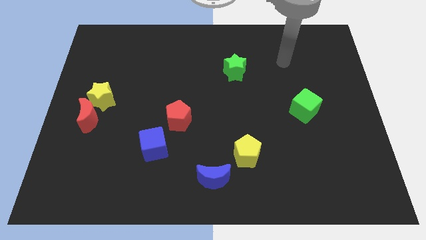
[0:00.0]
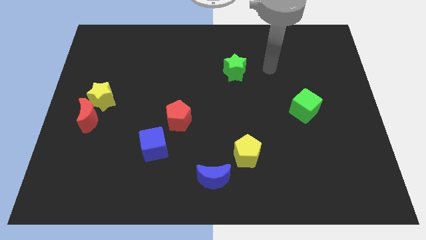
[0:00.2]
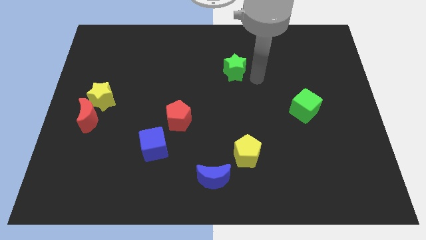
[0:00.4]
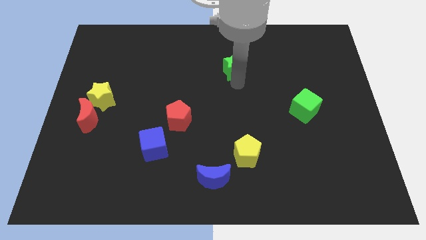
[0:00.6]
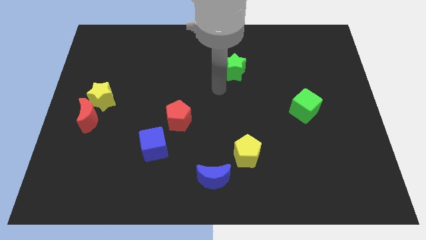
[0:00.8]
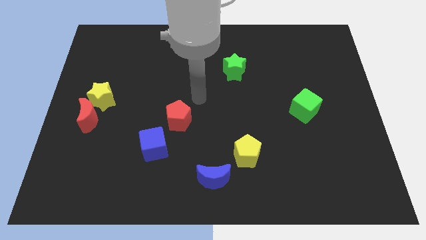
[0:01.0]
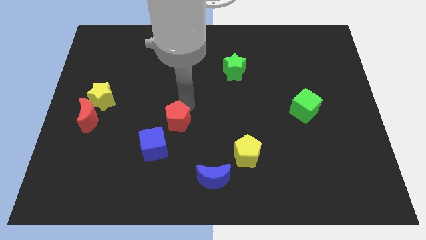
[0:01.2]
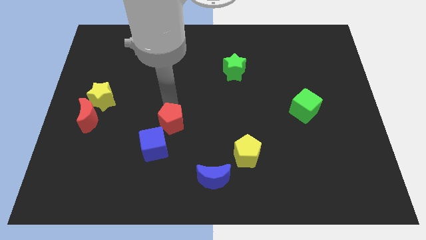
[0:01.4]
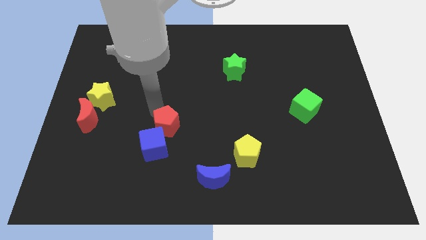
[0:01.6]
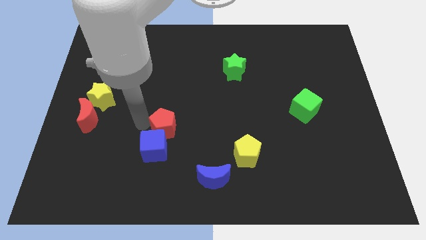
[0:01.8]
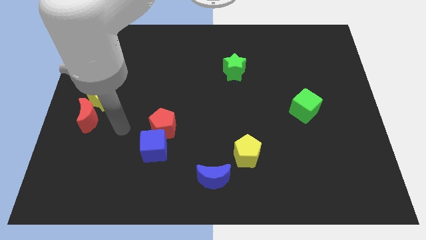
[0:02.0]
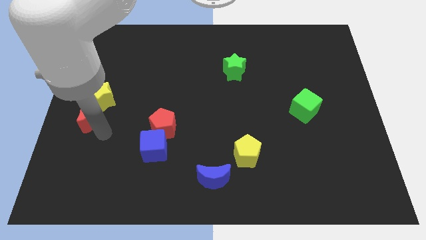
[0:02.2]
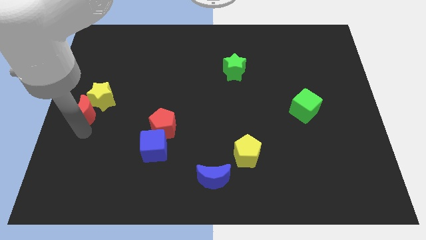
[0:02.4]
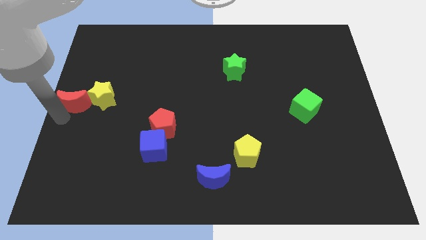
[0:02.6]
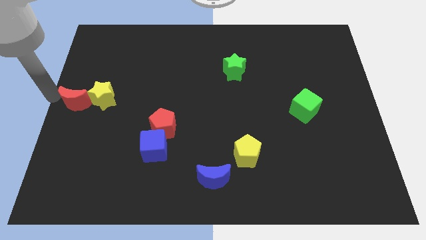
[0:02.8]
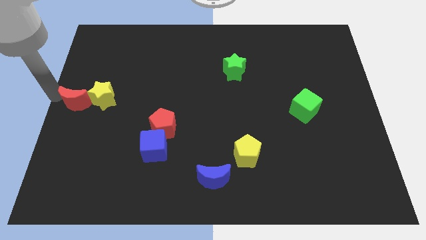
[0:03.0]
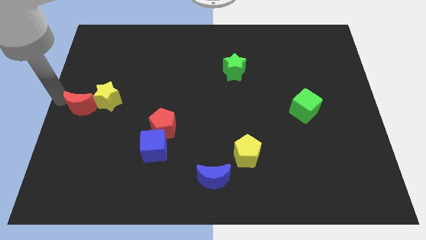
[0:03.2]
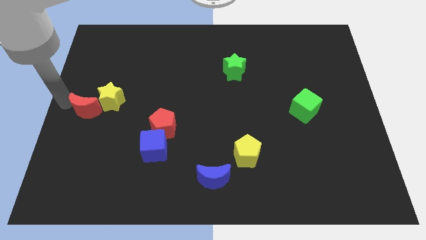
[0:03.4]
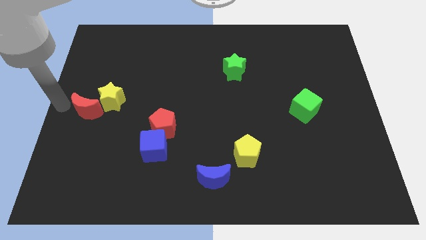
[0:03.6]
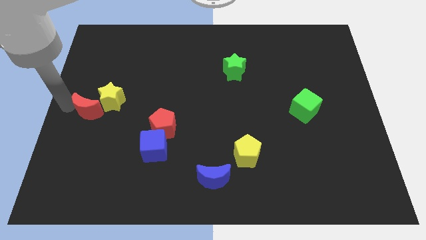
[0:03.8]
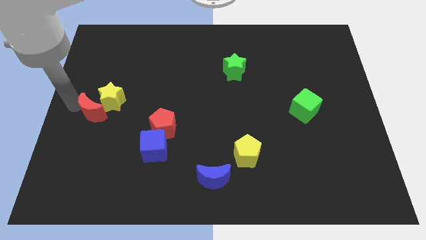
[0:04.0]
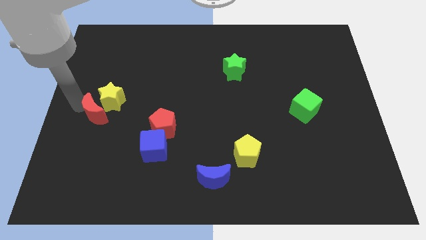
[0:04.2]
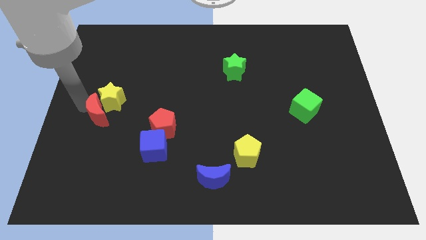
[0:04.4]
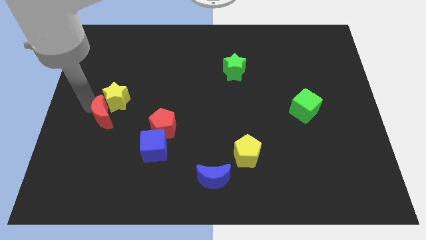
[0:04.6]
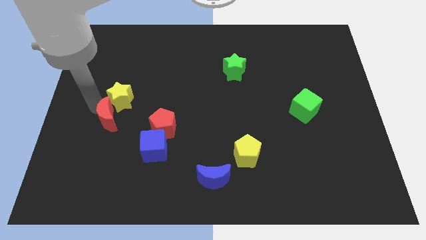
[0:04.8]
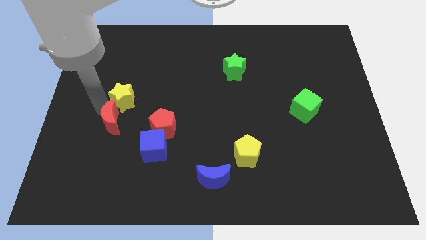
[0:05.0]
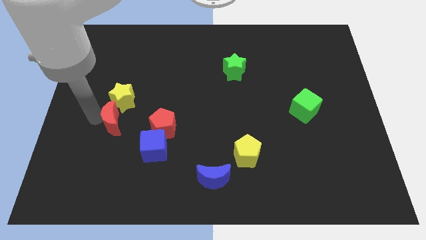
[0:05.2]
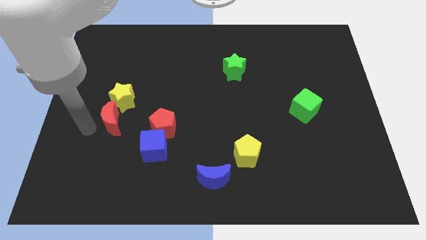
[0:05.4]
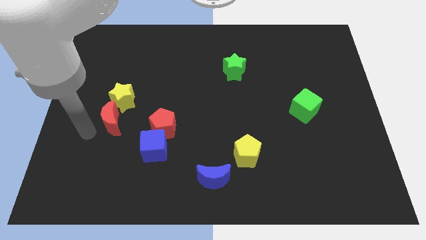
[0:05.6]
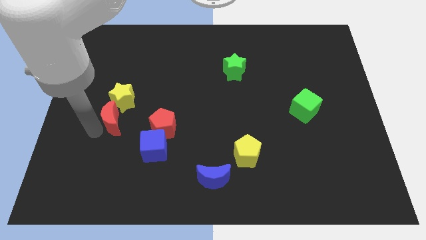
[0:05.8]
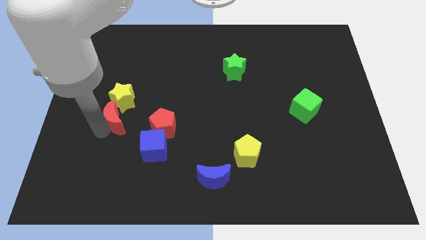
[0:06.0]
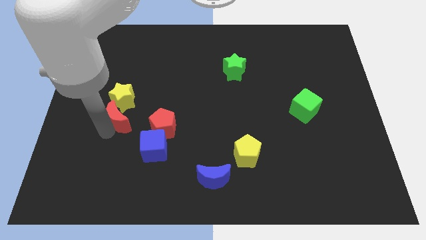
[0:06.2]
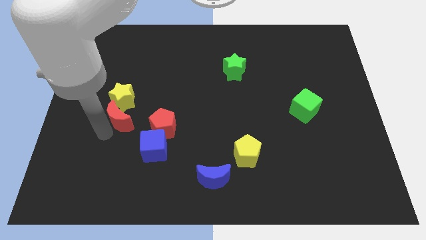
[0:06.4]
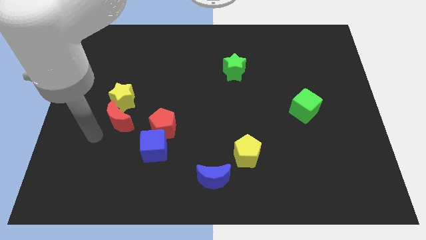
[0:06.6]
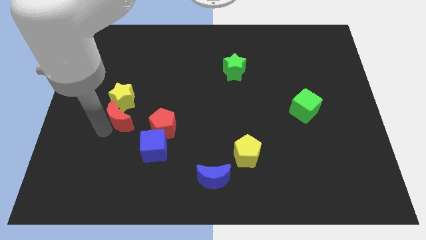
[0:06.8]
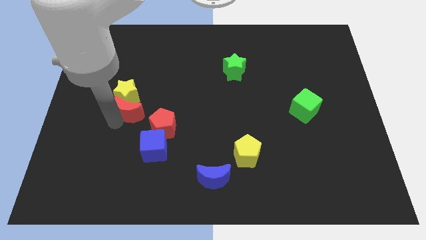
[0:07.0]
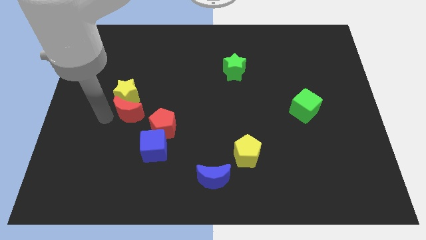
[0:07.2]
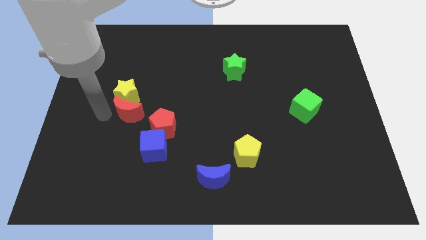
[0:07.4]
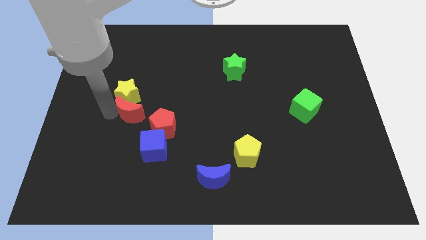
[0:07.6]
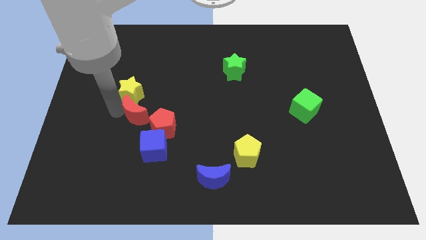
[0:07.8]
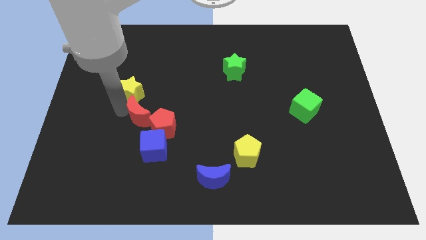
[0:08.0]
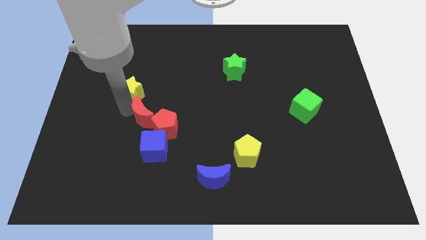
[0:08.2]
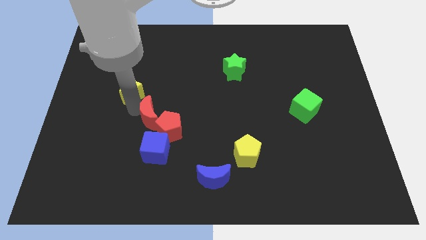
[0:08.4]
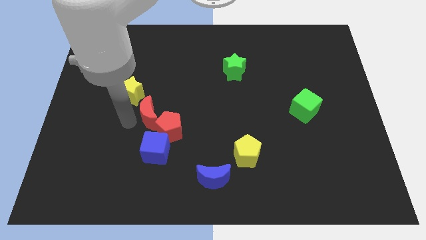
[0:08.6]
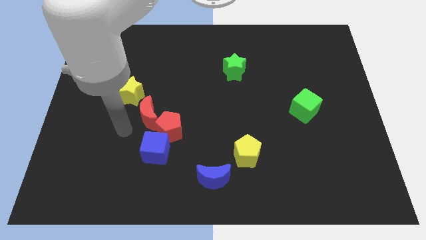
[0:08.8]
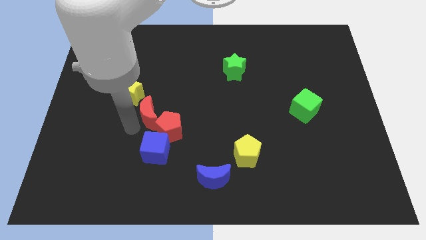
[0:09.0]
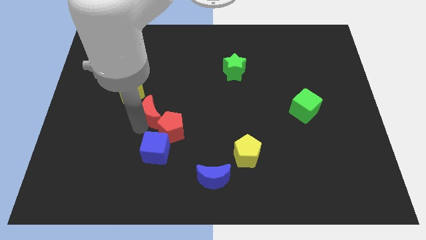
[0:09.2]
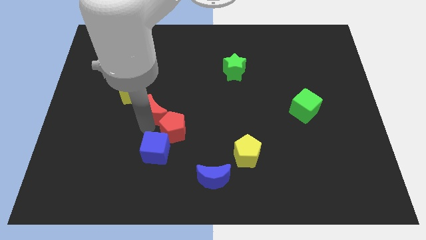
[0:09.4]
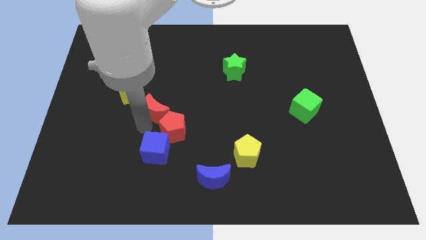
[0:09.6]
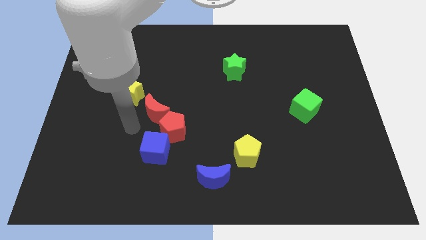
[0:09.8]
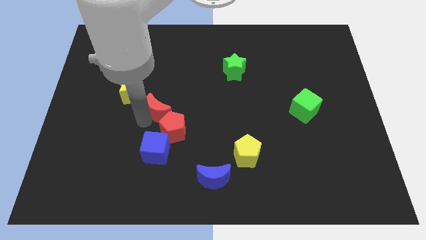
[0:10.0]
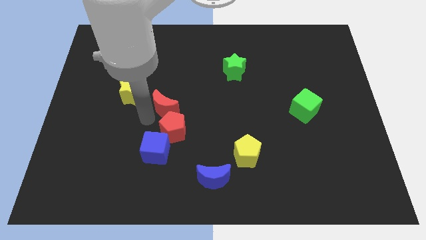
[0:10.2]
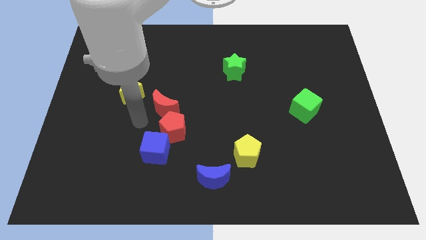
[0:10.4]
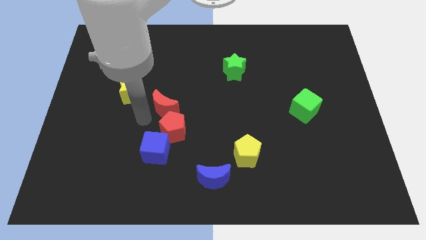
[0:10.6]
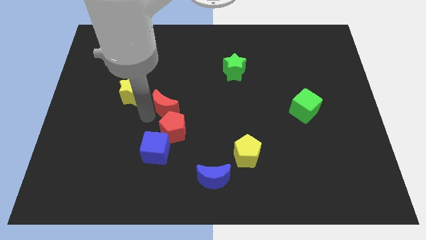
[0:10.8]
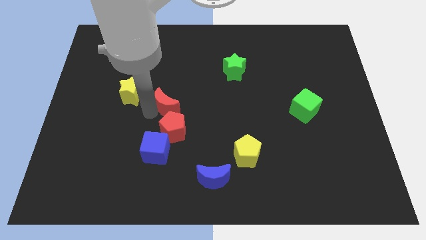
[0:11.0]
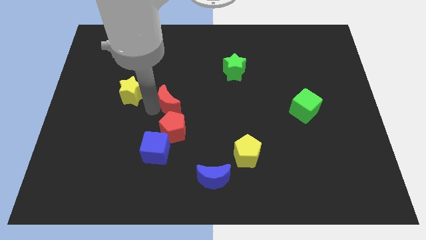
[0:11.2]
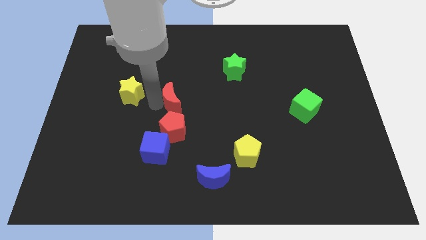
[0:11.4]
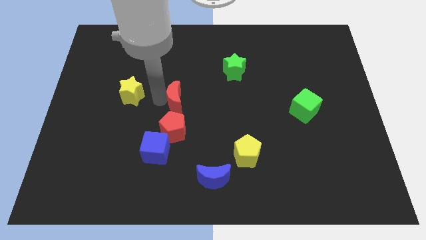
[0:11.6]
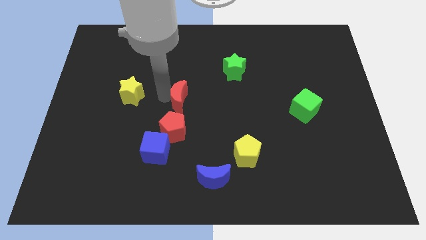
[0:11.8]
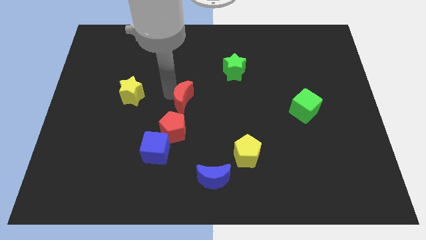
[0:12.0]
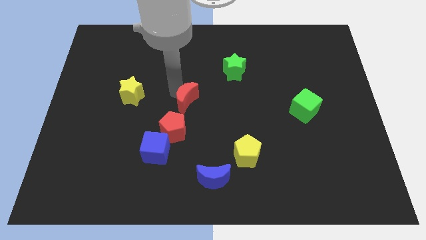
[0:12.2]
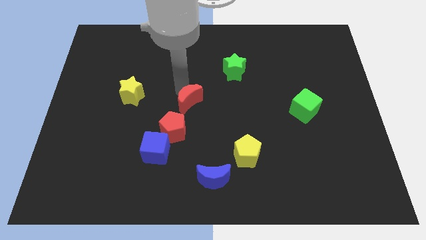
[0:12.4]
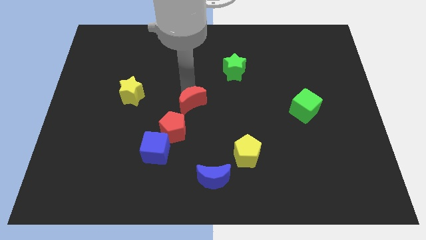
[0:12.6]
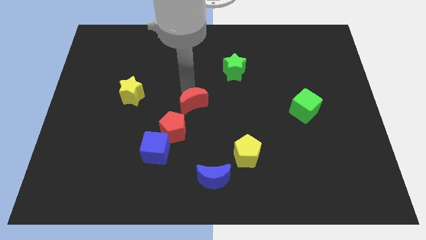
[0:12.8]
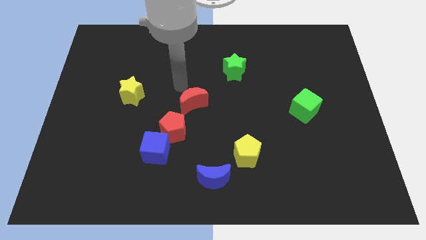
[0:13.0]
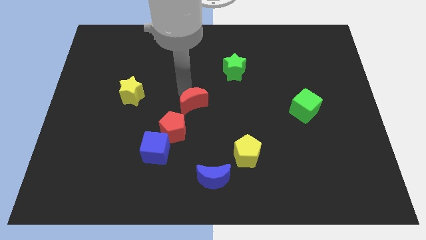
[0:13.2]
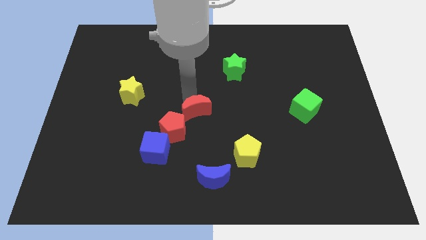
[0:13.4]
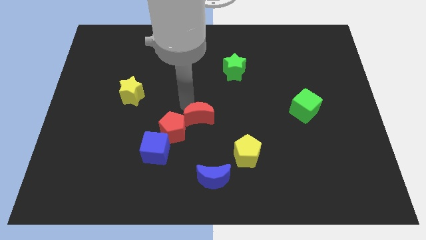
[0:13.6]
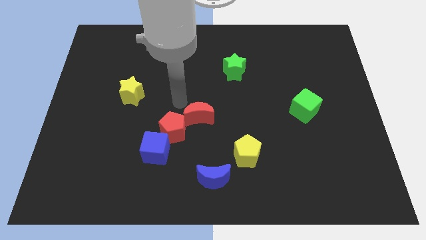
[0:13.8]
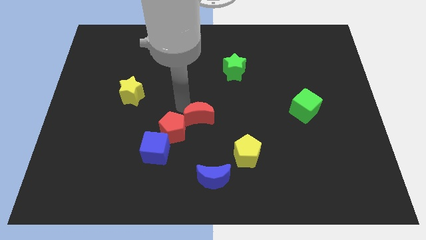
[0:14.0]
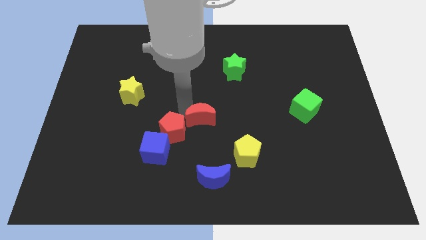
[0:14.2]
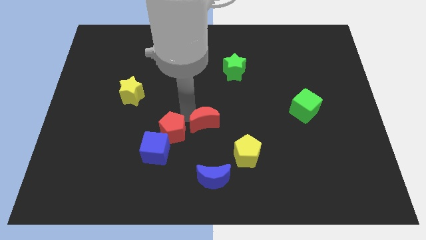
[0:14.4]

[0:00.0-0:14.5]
move the red moon to the top left side of the yellow pentagon

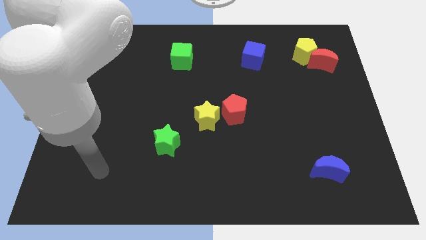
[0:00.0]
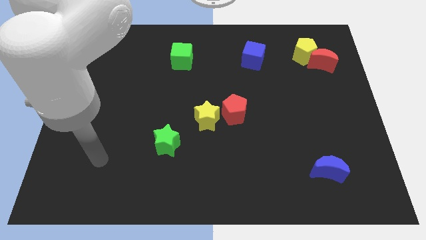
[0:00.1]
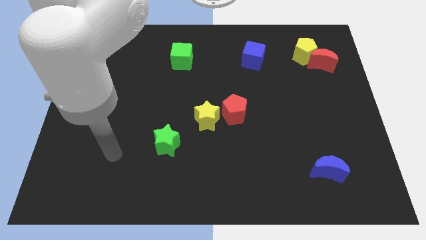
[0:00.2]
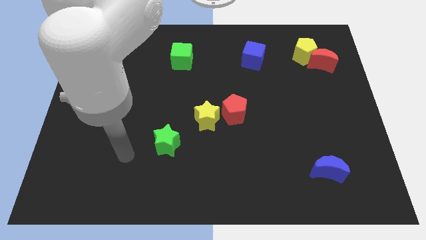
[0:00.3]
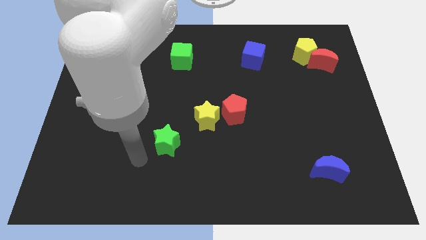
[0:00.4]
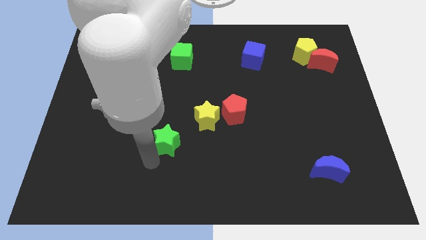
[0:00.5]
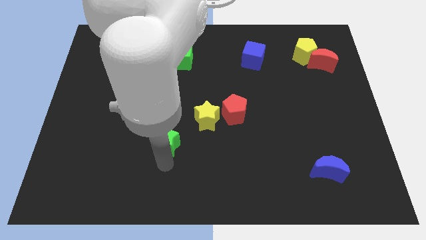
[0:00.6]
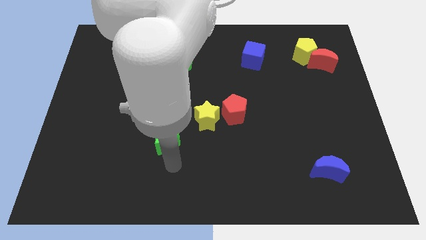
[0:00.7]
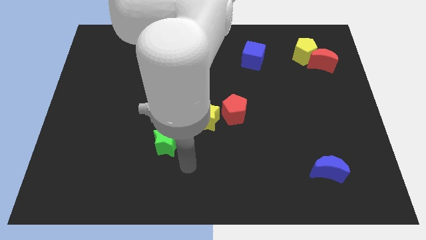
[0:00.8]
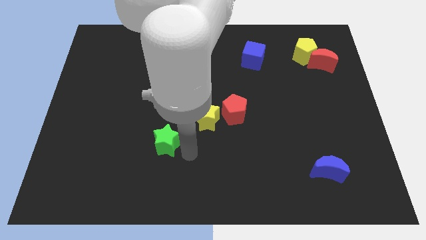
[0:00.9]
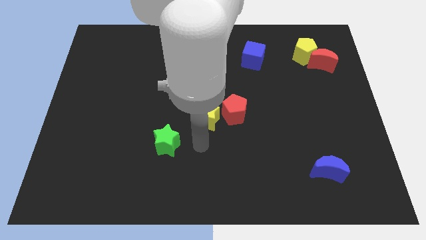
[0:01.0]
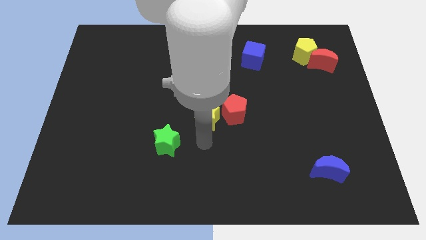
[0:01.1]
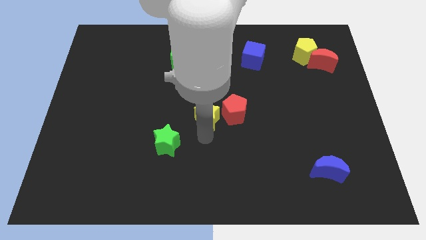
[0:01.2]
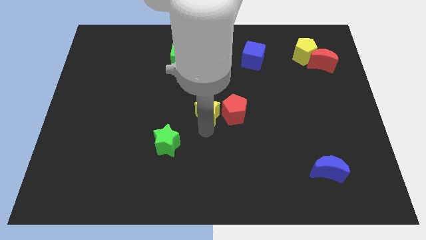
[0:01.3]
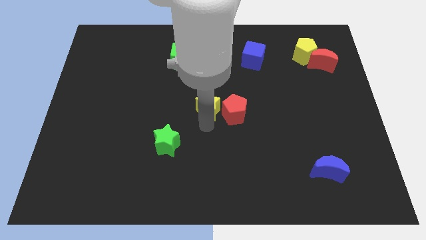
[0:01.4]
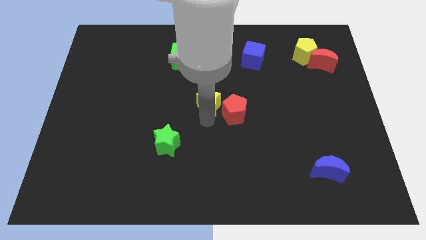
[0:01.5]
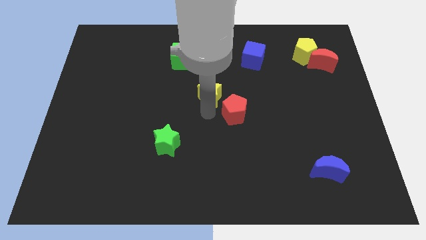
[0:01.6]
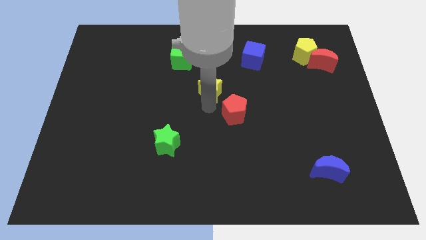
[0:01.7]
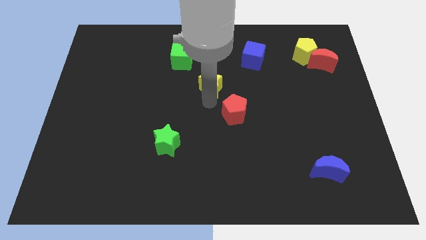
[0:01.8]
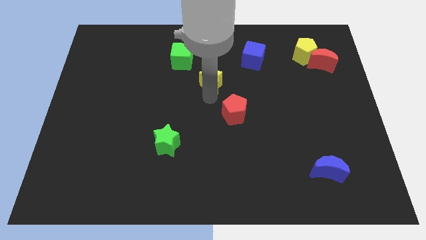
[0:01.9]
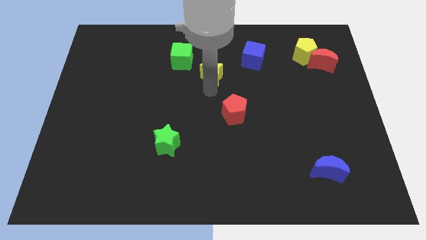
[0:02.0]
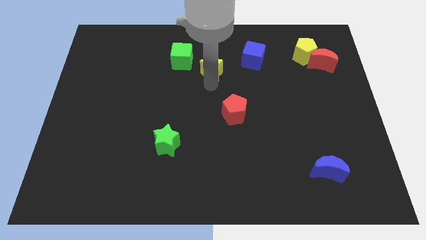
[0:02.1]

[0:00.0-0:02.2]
slide the yellow star just left of the blue cube
